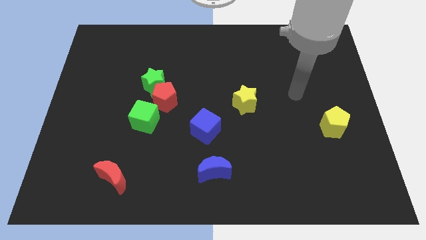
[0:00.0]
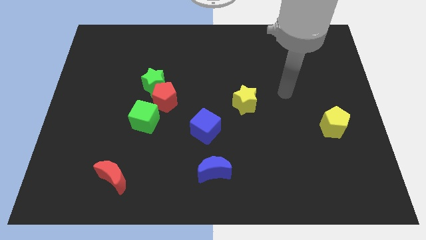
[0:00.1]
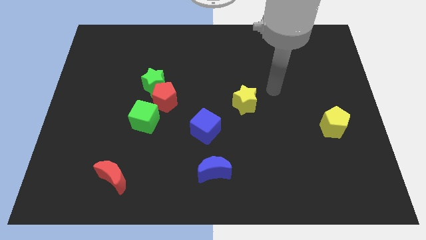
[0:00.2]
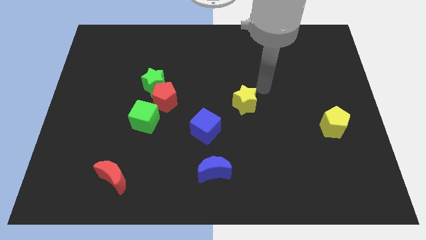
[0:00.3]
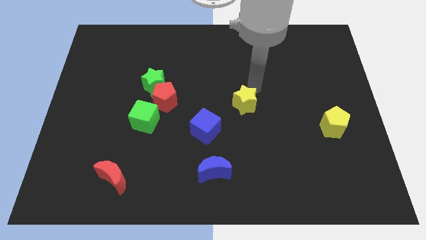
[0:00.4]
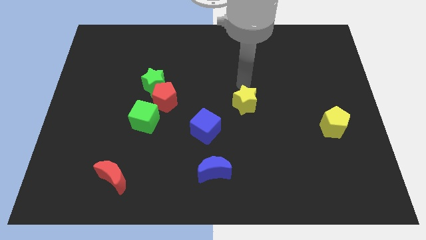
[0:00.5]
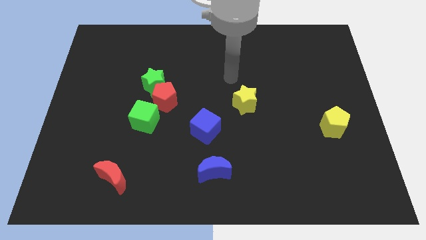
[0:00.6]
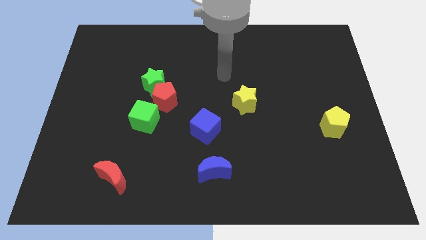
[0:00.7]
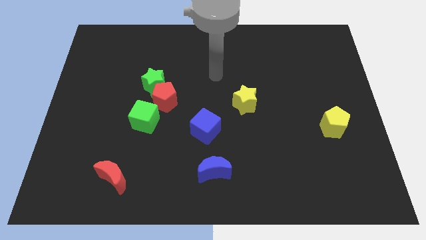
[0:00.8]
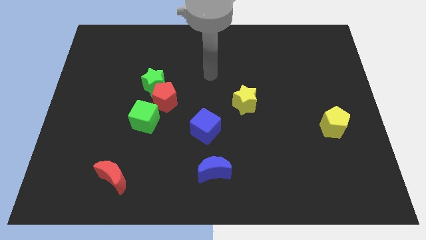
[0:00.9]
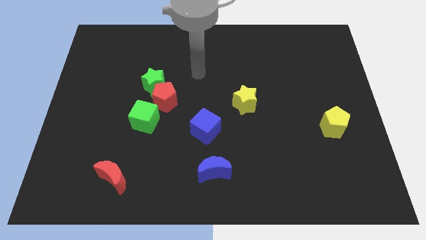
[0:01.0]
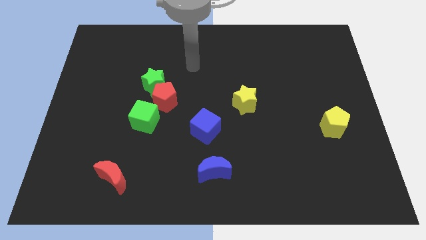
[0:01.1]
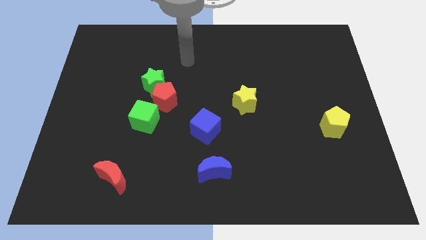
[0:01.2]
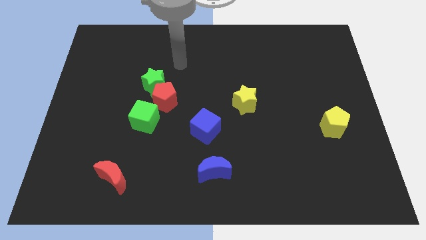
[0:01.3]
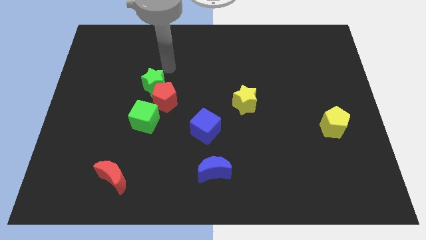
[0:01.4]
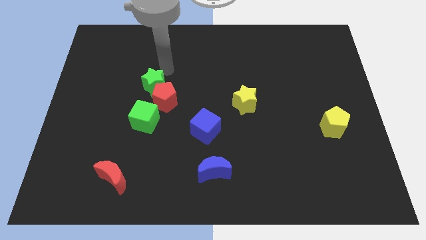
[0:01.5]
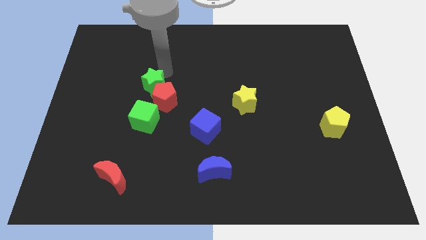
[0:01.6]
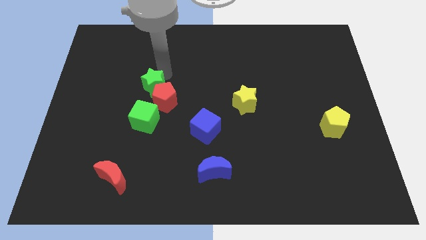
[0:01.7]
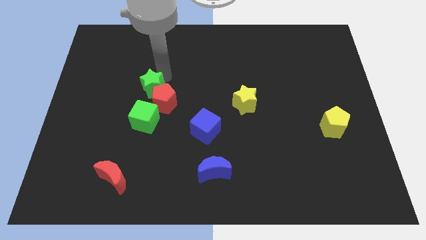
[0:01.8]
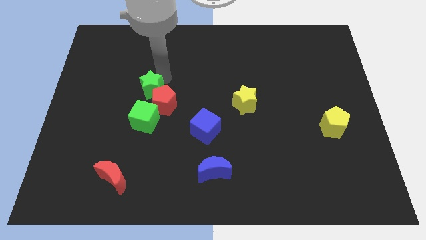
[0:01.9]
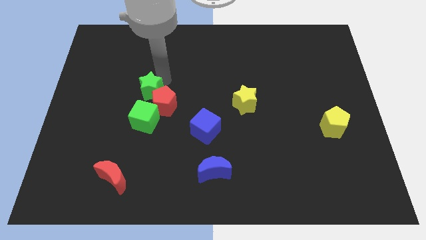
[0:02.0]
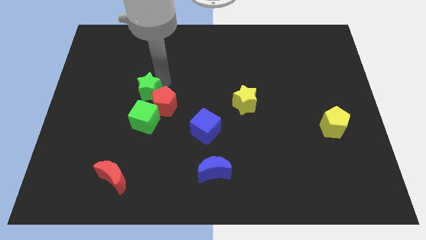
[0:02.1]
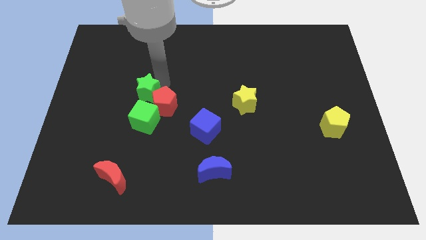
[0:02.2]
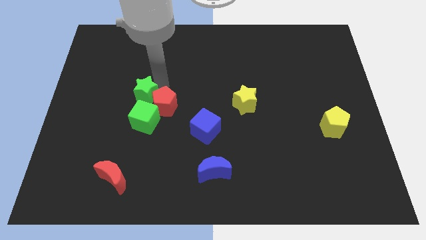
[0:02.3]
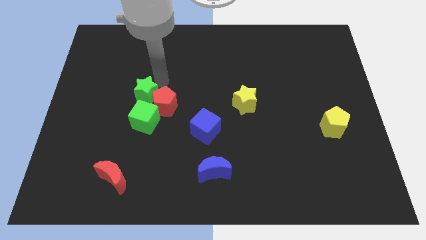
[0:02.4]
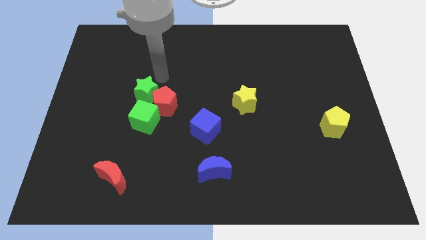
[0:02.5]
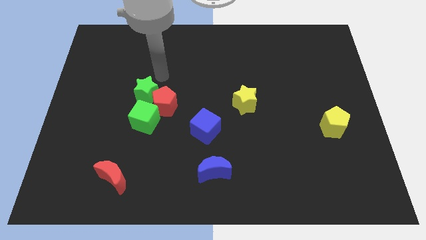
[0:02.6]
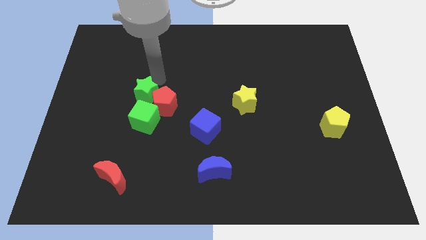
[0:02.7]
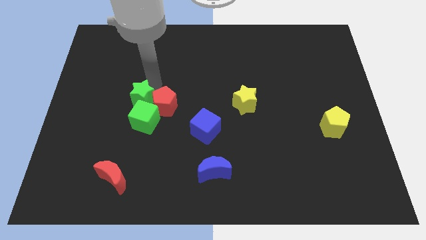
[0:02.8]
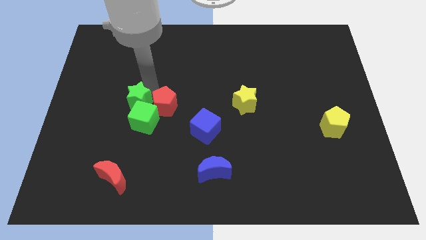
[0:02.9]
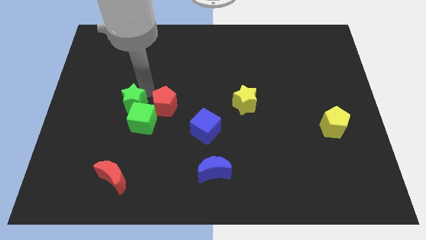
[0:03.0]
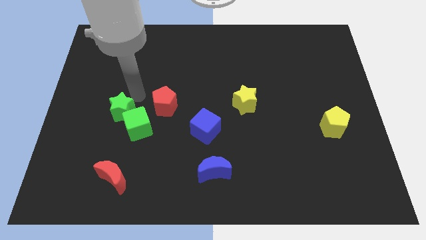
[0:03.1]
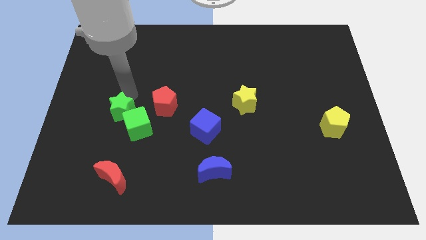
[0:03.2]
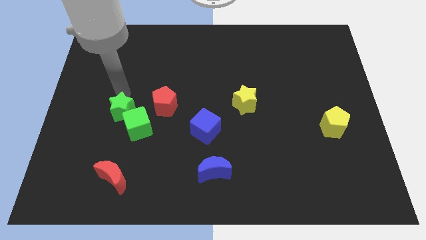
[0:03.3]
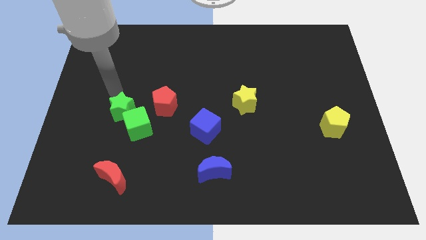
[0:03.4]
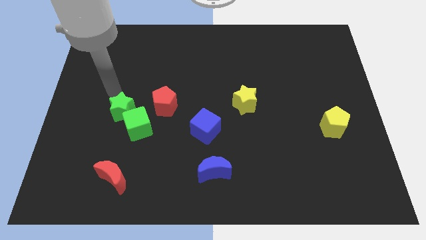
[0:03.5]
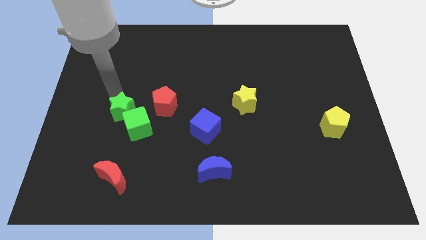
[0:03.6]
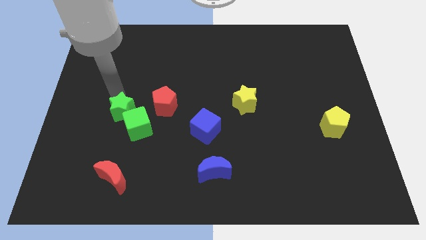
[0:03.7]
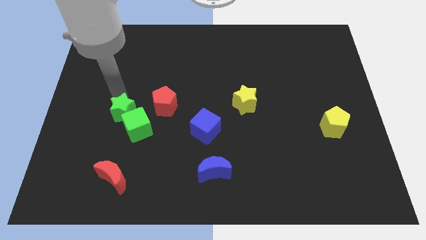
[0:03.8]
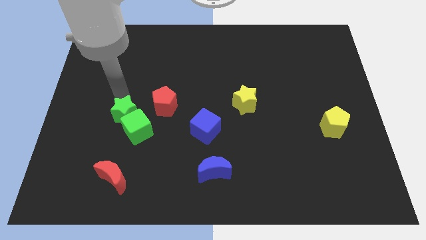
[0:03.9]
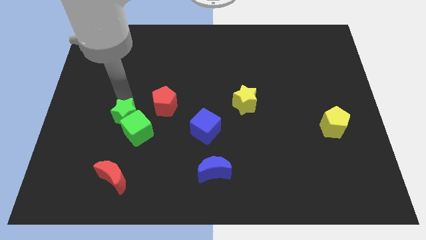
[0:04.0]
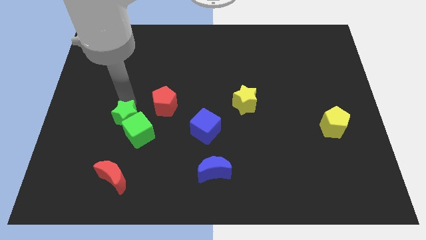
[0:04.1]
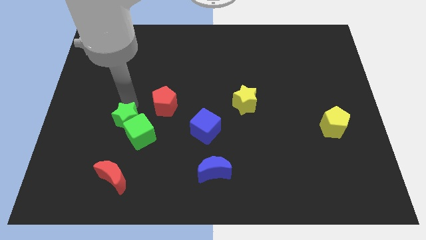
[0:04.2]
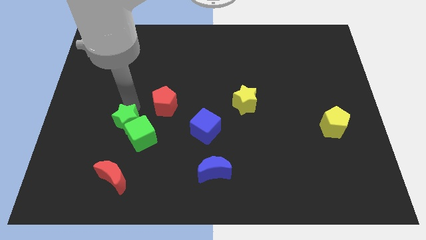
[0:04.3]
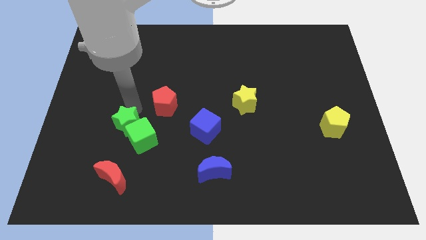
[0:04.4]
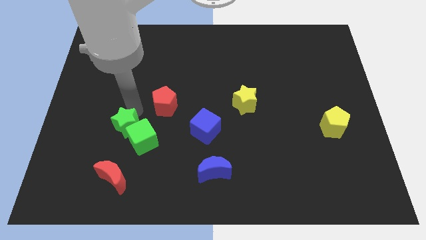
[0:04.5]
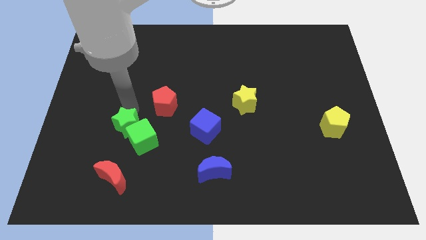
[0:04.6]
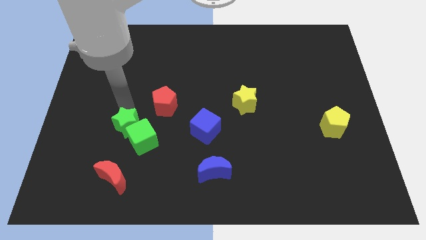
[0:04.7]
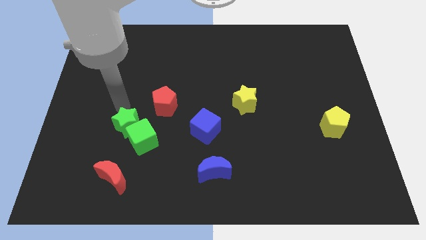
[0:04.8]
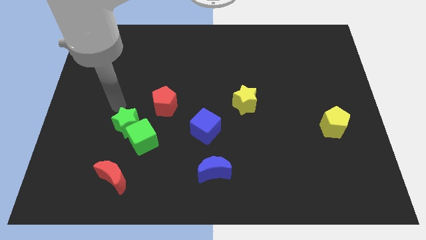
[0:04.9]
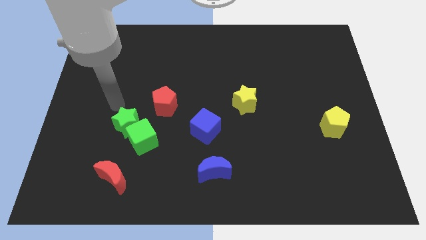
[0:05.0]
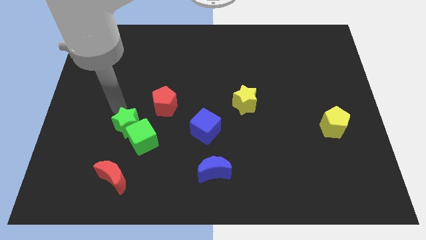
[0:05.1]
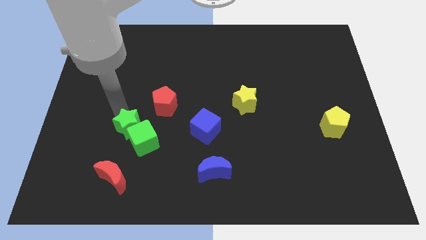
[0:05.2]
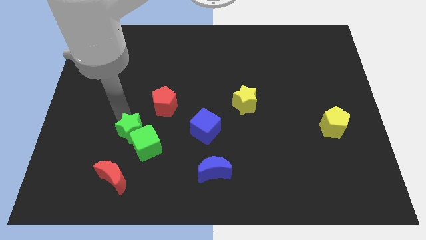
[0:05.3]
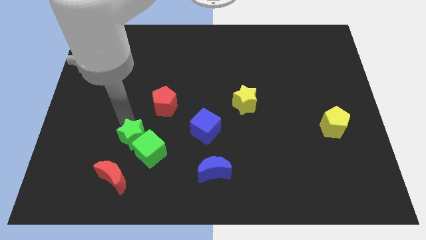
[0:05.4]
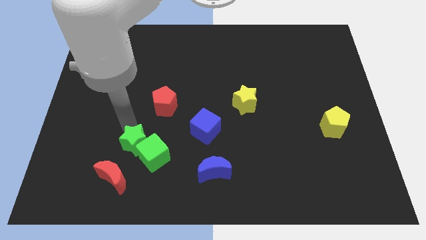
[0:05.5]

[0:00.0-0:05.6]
push the green star to the top right of the red moon
